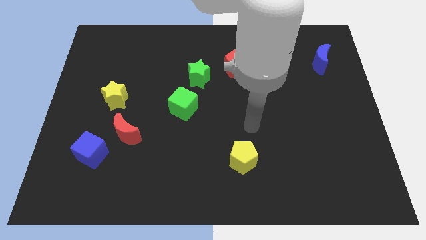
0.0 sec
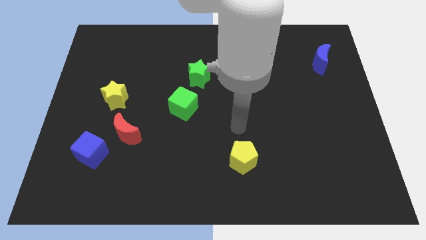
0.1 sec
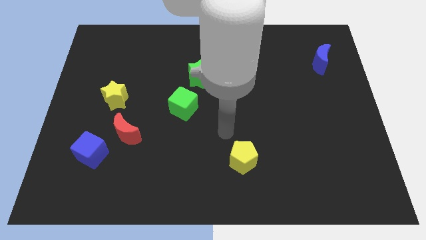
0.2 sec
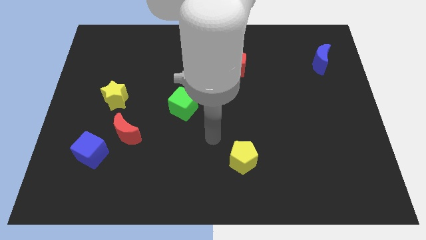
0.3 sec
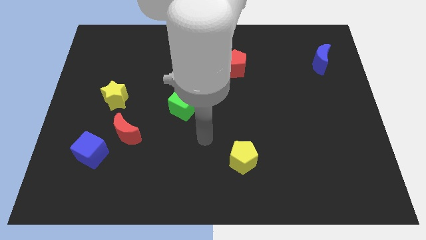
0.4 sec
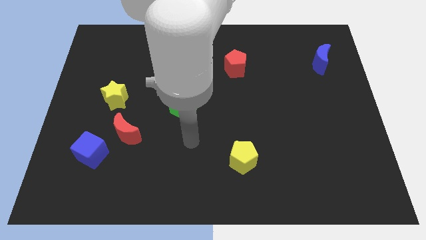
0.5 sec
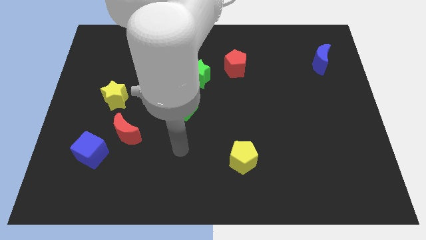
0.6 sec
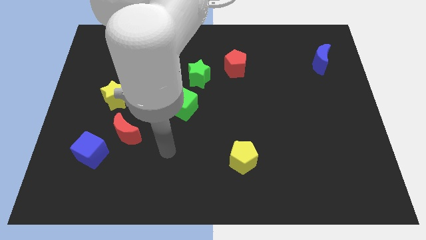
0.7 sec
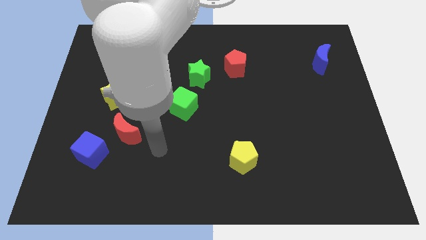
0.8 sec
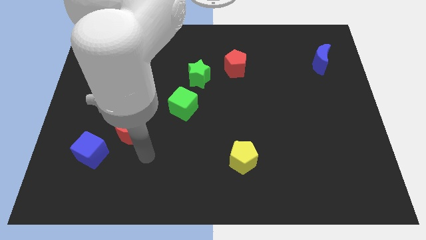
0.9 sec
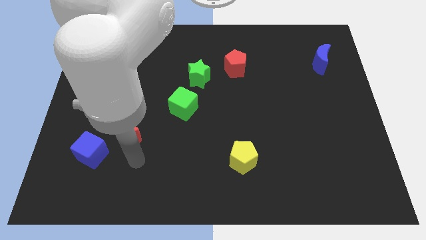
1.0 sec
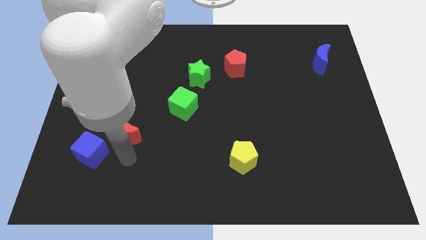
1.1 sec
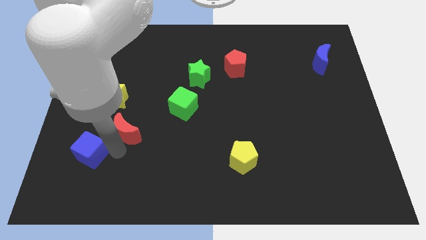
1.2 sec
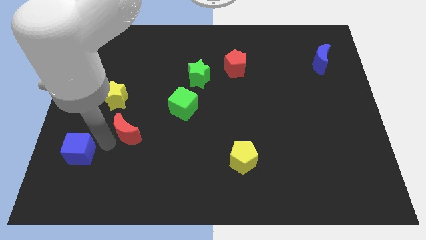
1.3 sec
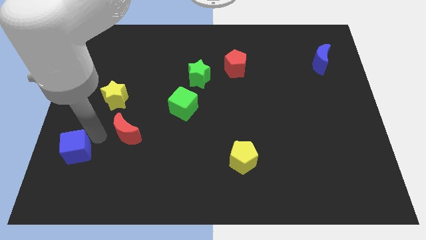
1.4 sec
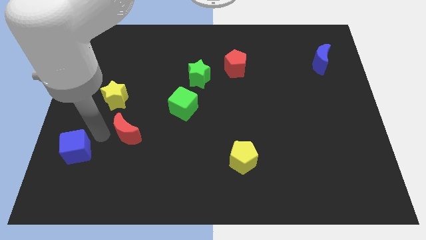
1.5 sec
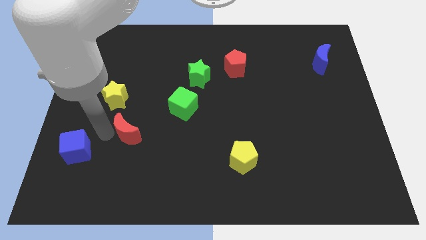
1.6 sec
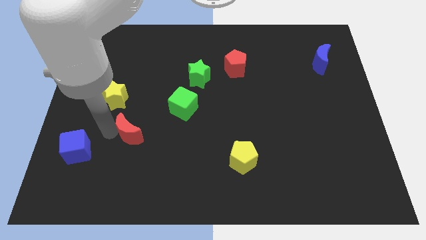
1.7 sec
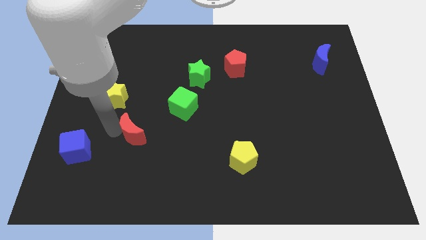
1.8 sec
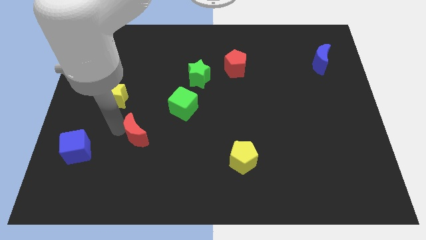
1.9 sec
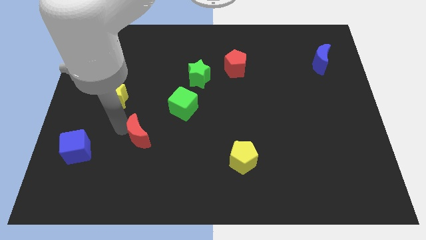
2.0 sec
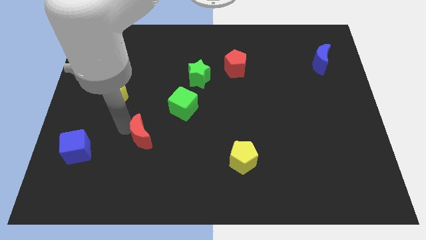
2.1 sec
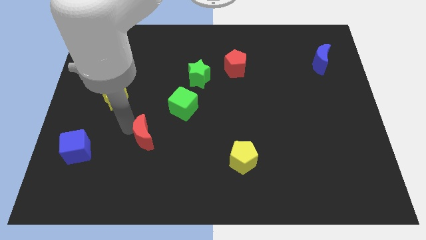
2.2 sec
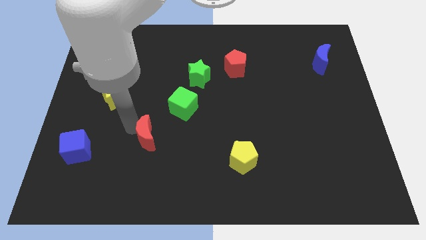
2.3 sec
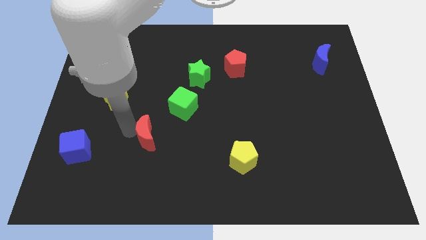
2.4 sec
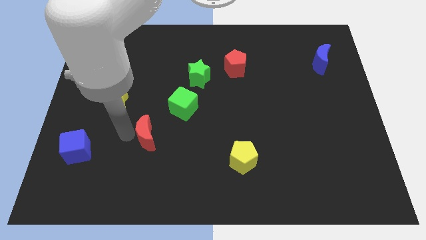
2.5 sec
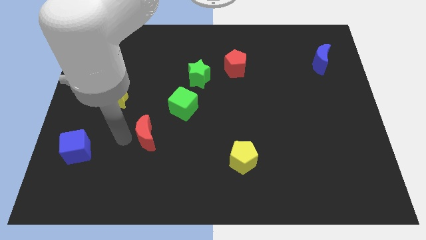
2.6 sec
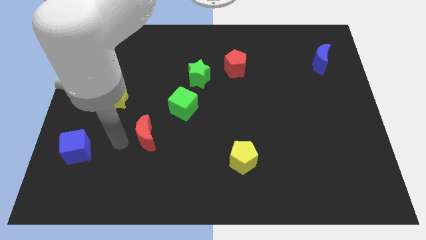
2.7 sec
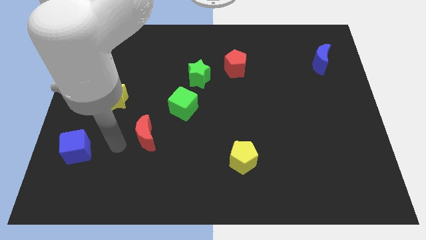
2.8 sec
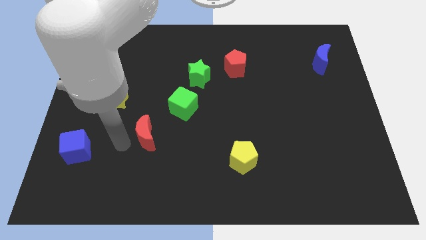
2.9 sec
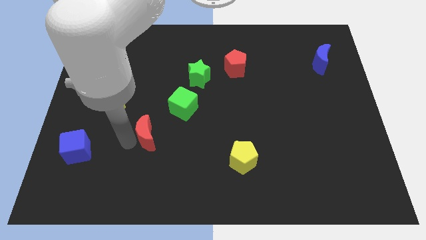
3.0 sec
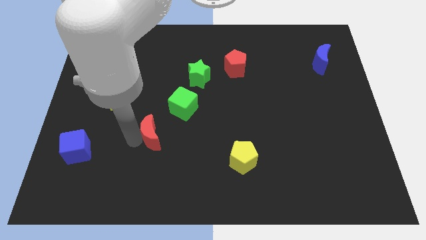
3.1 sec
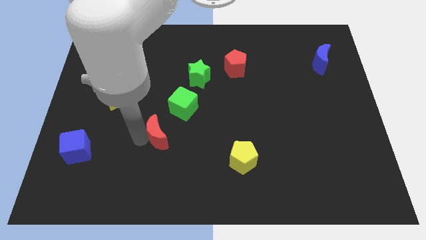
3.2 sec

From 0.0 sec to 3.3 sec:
move the red moon right a little

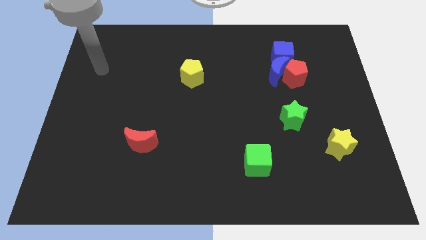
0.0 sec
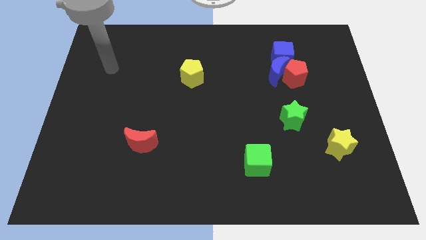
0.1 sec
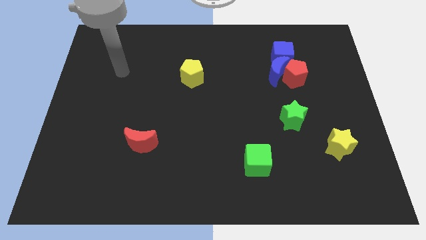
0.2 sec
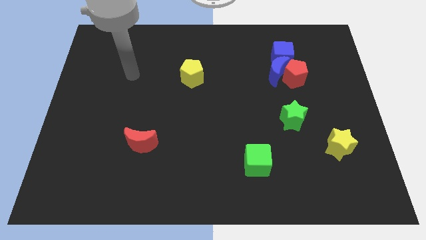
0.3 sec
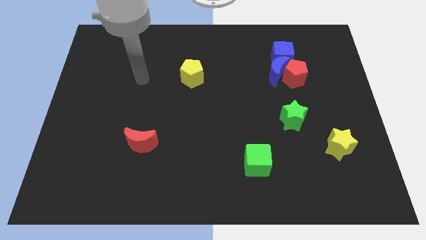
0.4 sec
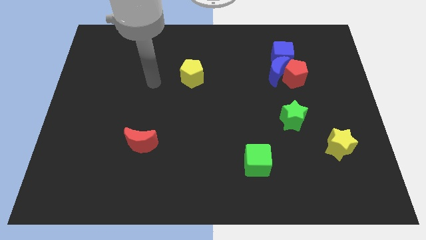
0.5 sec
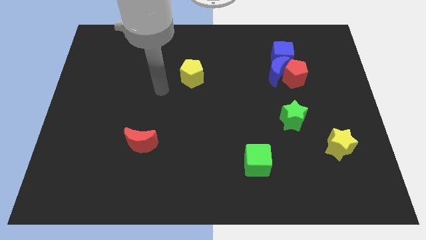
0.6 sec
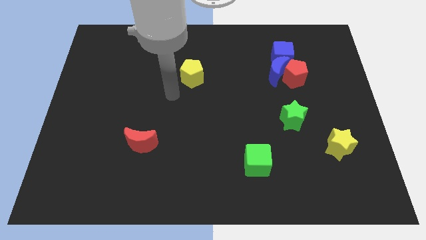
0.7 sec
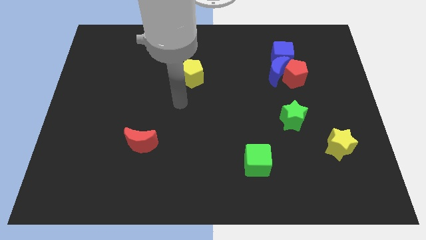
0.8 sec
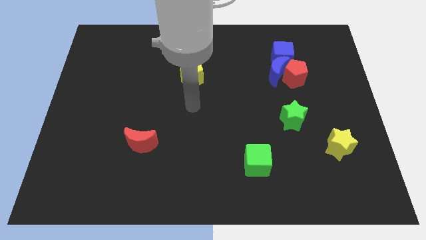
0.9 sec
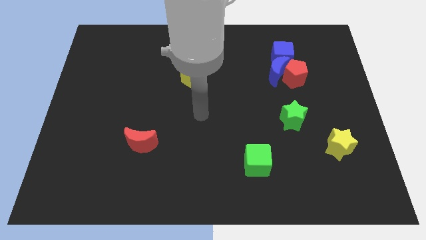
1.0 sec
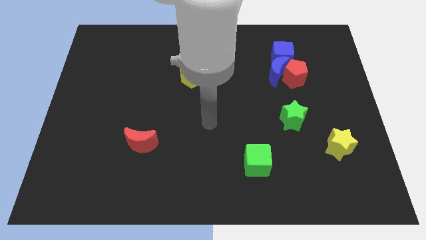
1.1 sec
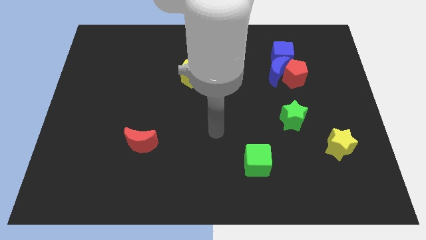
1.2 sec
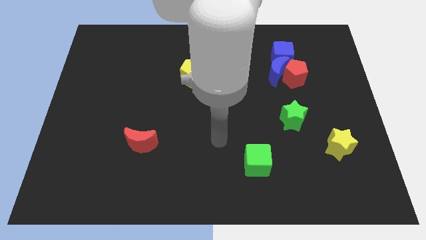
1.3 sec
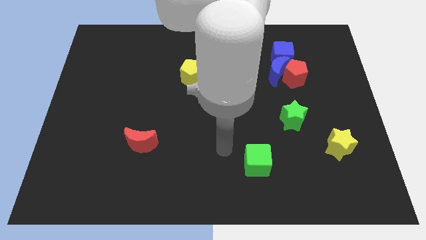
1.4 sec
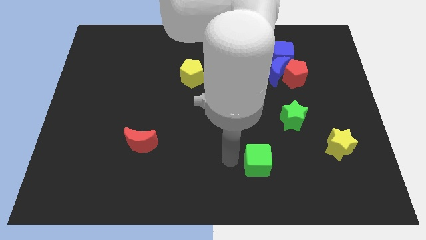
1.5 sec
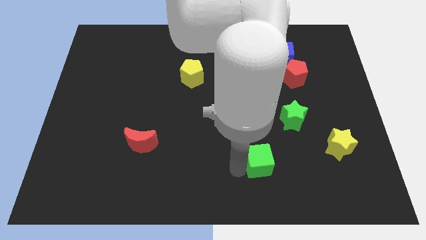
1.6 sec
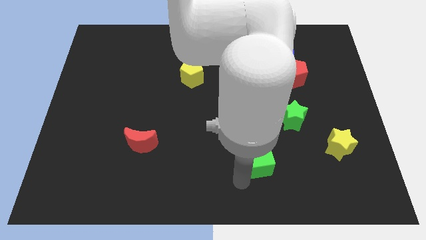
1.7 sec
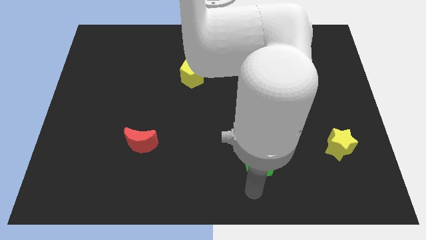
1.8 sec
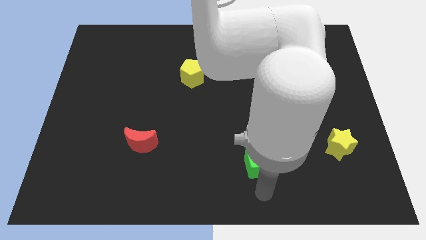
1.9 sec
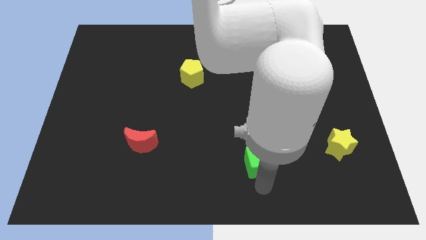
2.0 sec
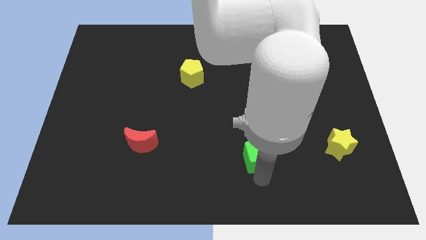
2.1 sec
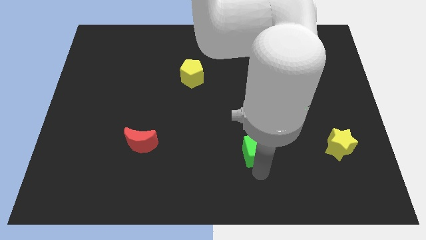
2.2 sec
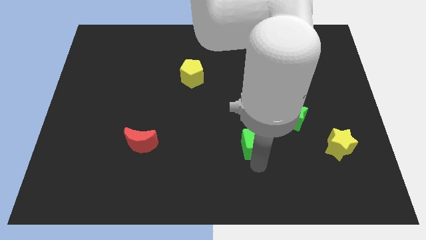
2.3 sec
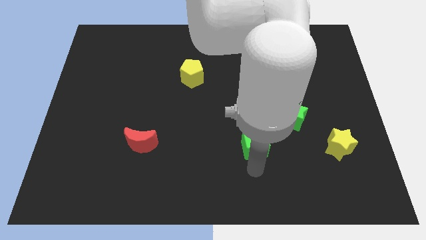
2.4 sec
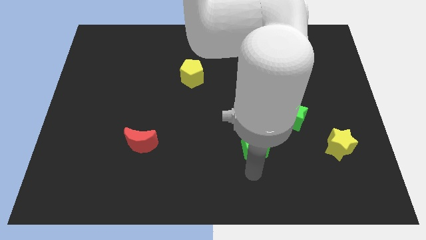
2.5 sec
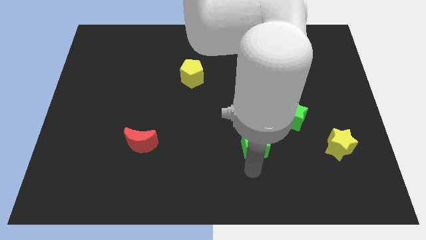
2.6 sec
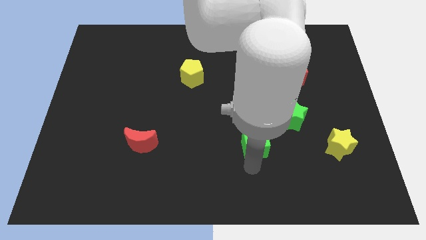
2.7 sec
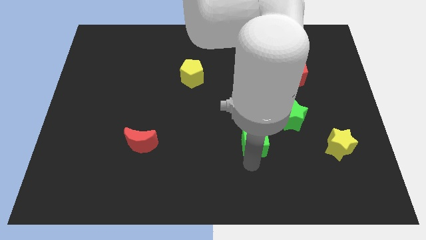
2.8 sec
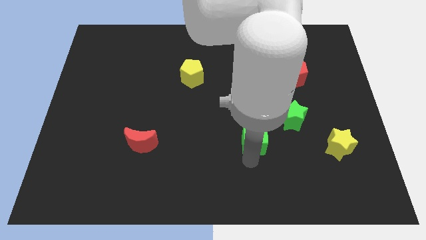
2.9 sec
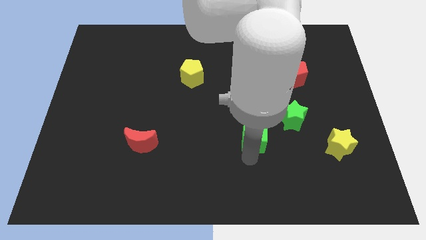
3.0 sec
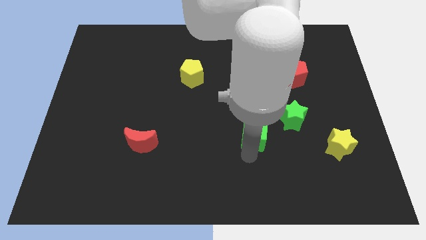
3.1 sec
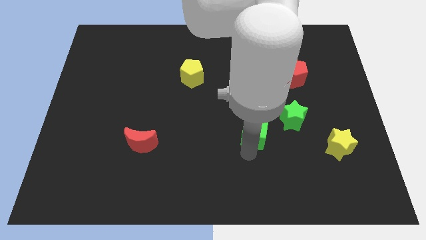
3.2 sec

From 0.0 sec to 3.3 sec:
push the green cube somewhat upwards

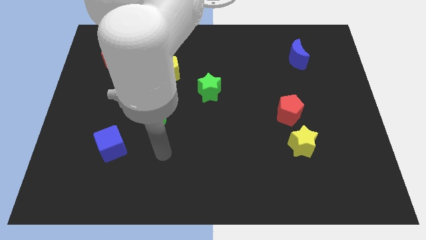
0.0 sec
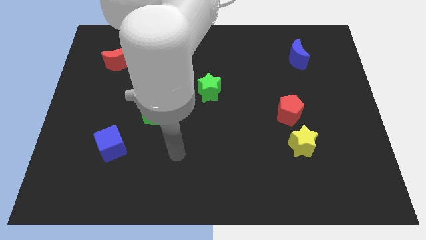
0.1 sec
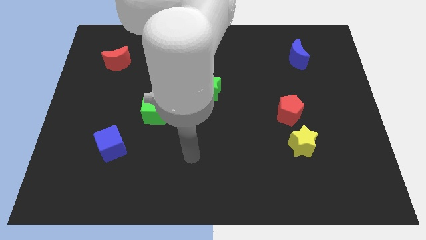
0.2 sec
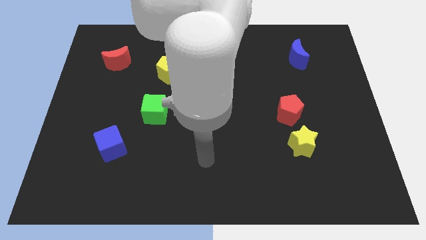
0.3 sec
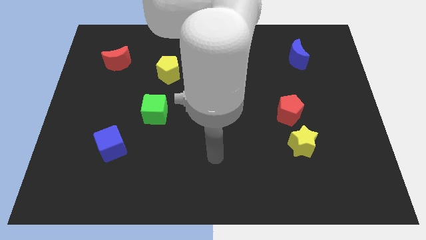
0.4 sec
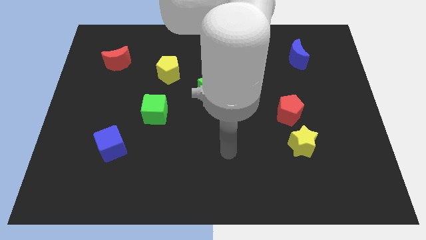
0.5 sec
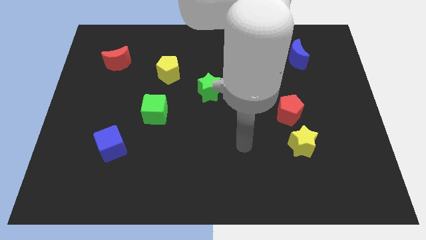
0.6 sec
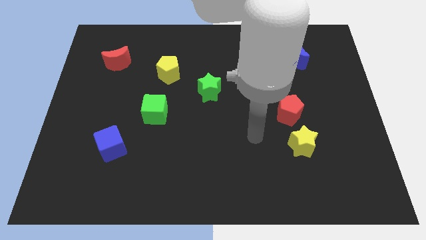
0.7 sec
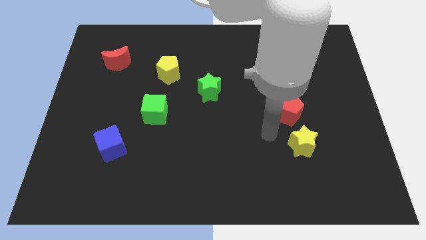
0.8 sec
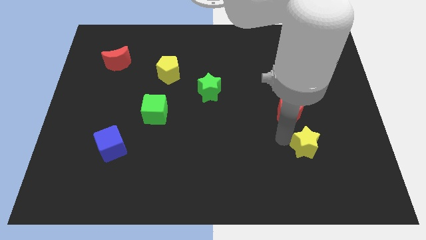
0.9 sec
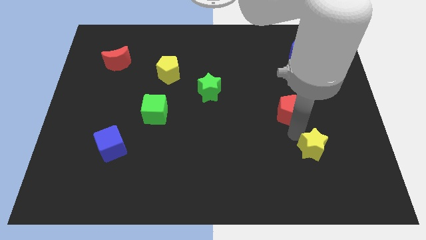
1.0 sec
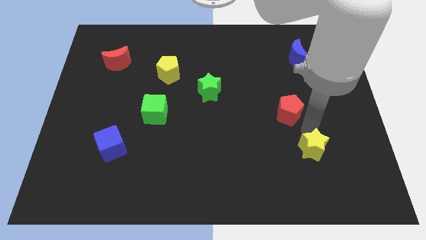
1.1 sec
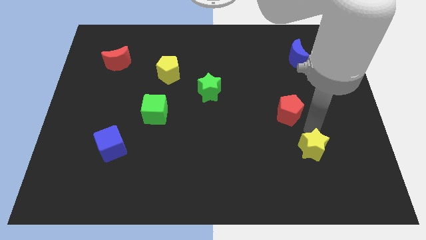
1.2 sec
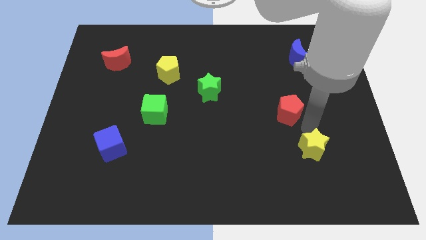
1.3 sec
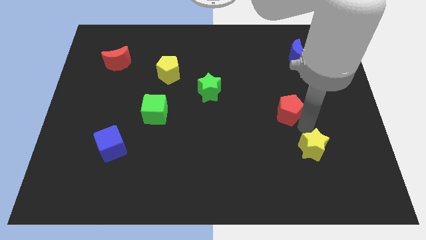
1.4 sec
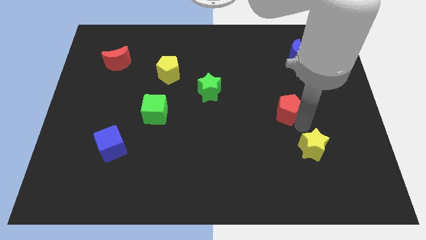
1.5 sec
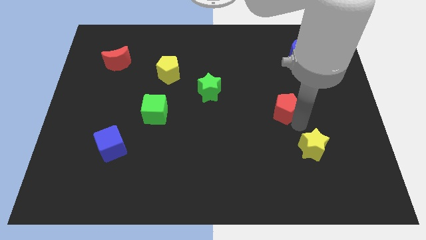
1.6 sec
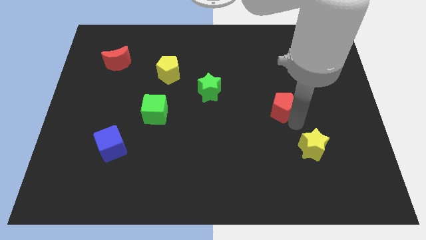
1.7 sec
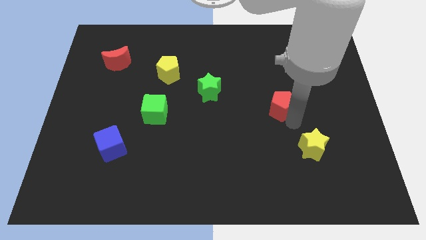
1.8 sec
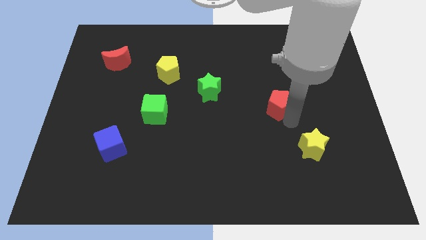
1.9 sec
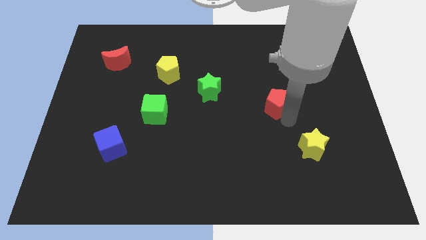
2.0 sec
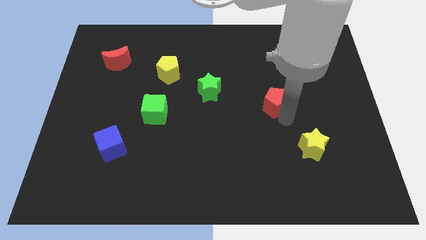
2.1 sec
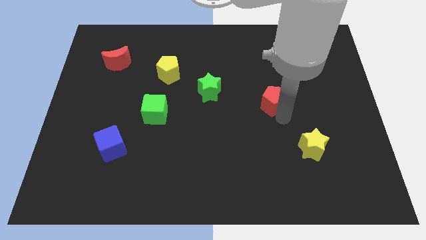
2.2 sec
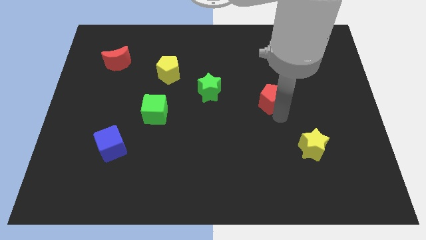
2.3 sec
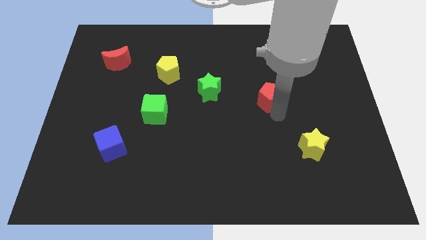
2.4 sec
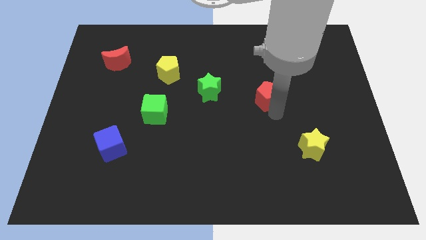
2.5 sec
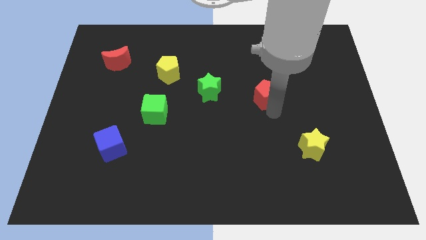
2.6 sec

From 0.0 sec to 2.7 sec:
slightly move the red pentagon upwards and to the left diagonally
